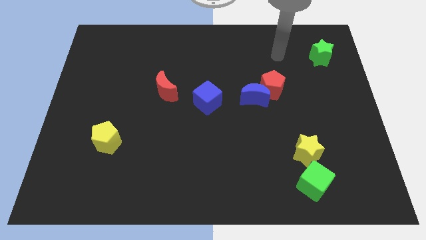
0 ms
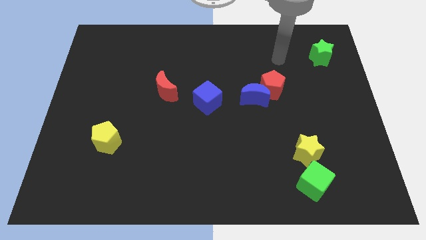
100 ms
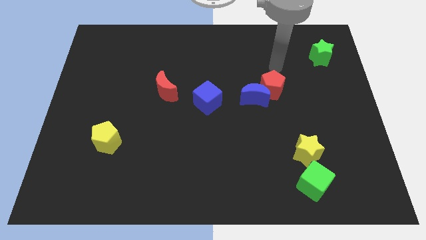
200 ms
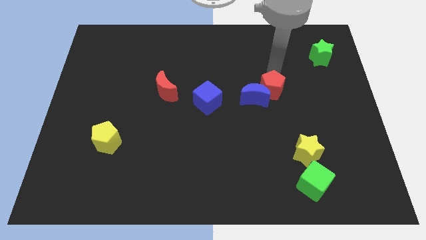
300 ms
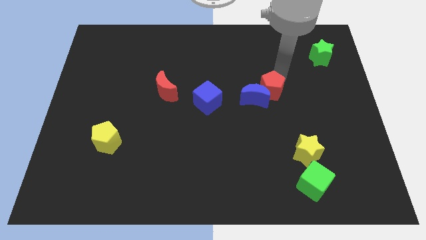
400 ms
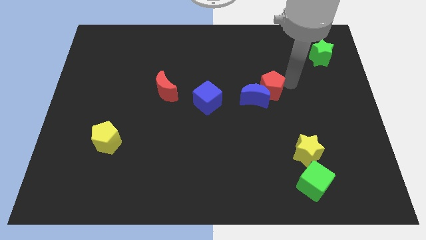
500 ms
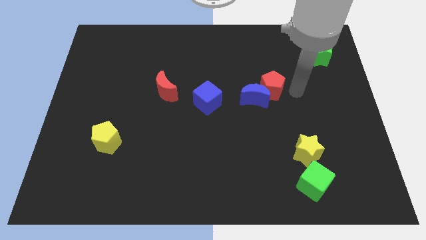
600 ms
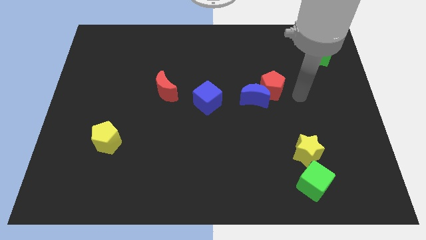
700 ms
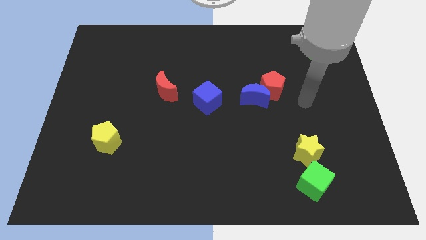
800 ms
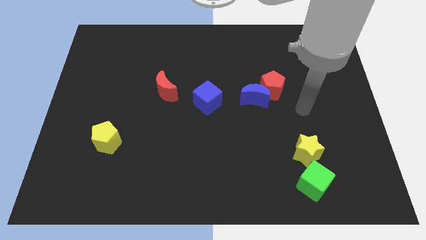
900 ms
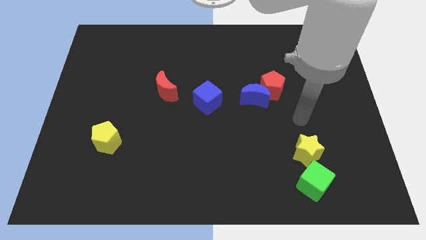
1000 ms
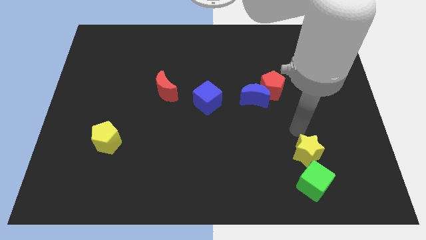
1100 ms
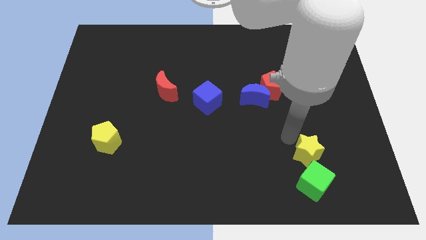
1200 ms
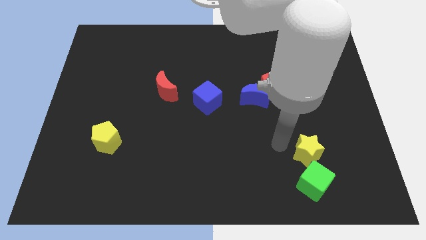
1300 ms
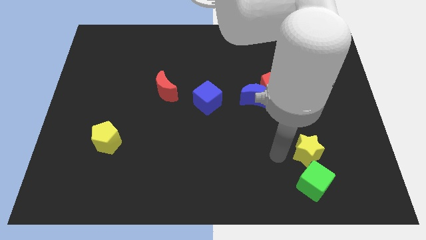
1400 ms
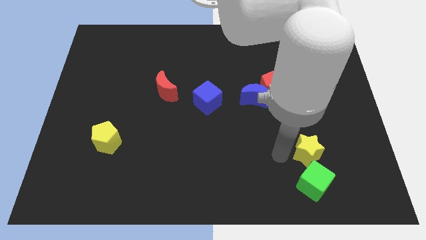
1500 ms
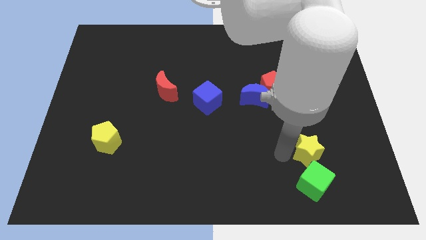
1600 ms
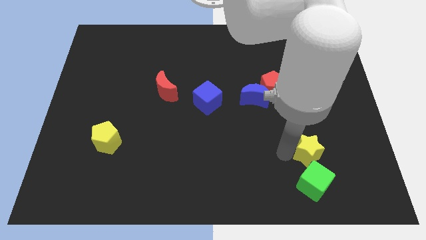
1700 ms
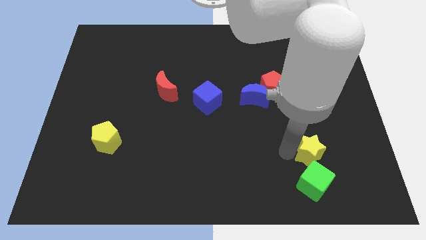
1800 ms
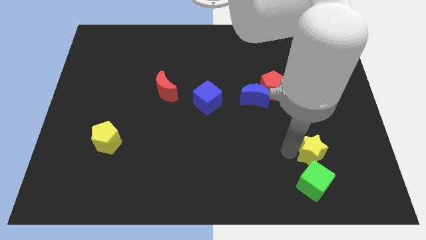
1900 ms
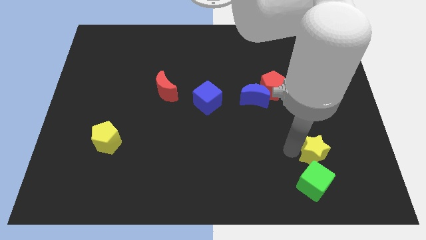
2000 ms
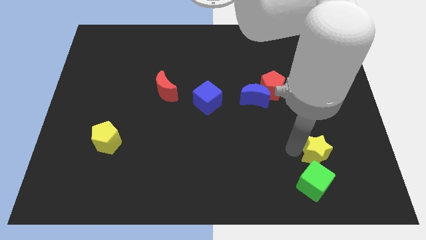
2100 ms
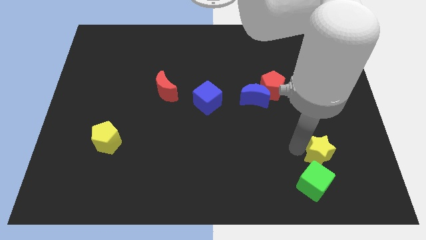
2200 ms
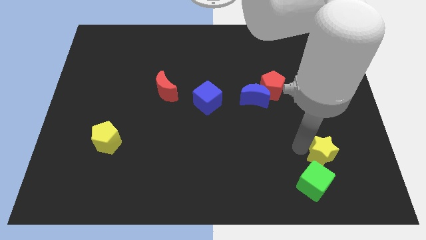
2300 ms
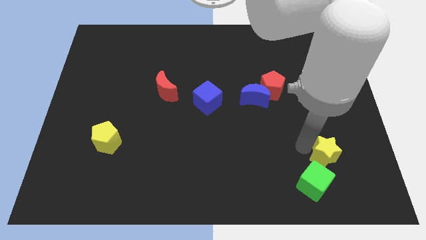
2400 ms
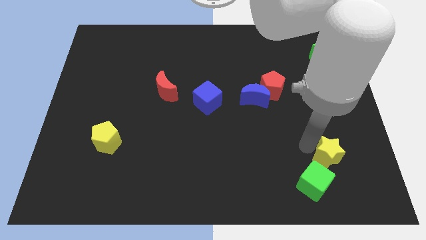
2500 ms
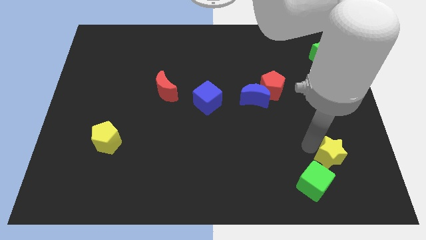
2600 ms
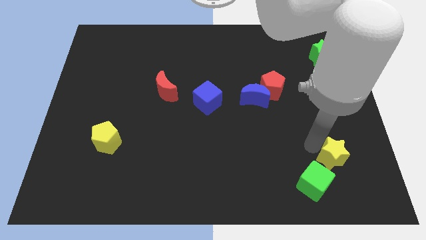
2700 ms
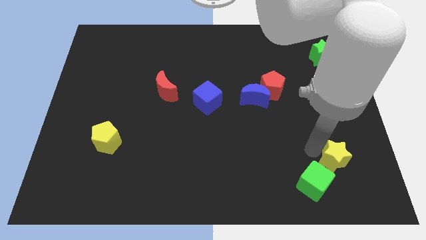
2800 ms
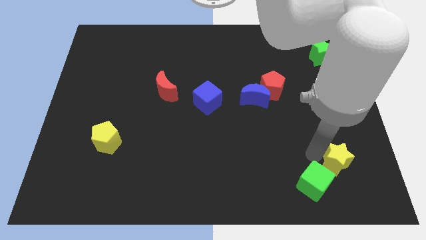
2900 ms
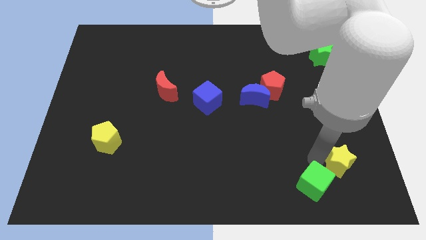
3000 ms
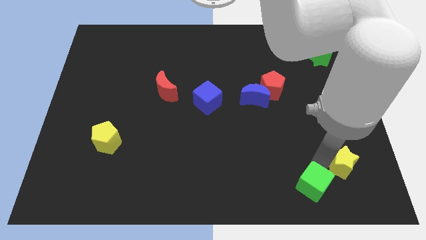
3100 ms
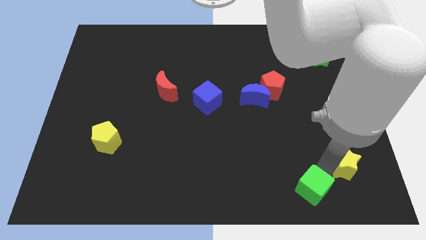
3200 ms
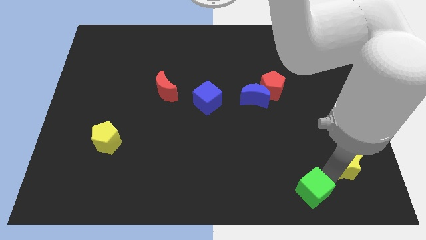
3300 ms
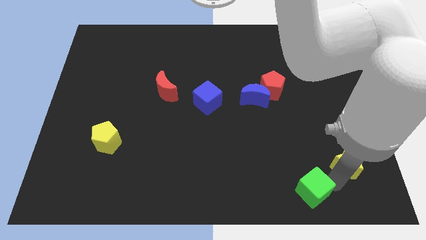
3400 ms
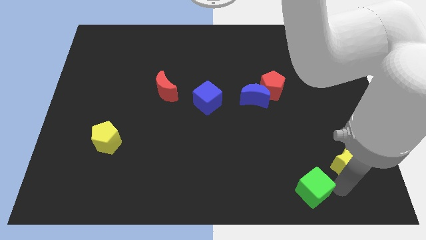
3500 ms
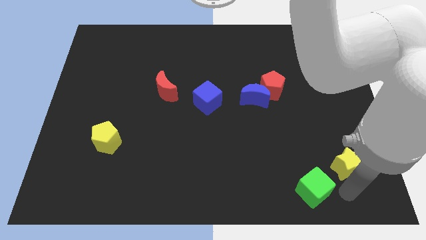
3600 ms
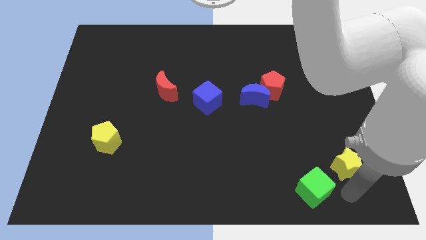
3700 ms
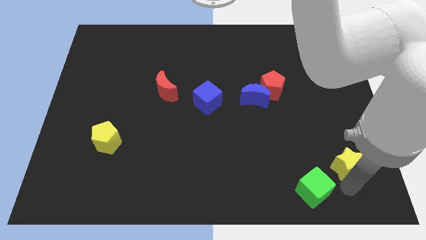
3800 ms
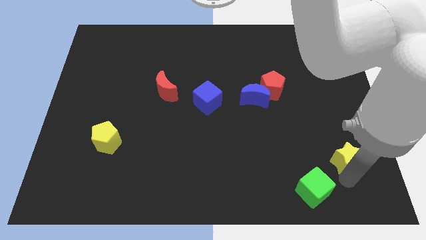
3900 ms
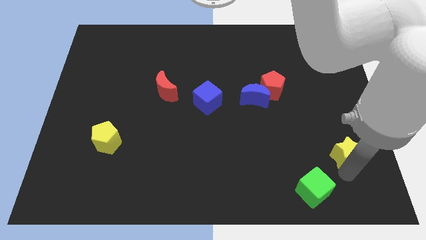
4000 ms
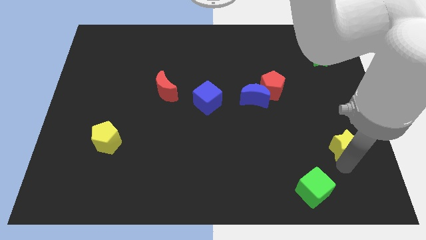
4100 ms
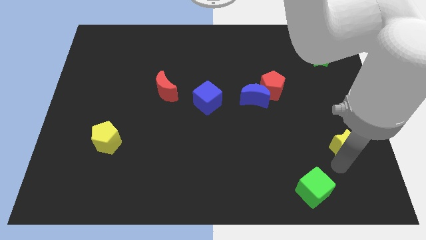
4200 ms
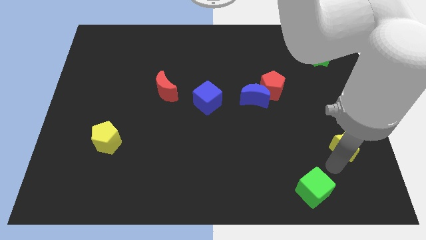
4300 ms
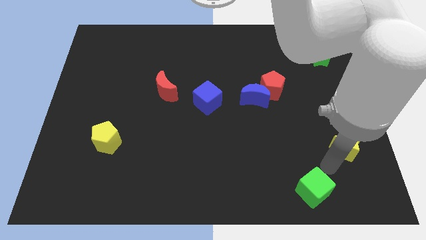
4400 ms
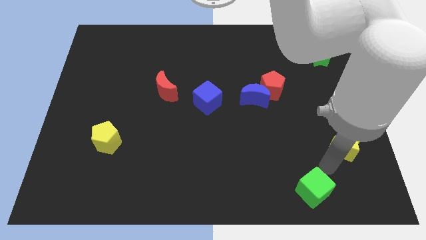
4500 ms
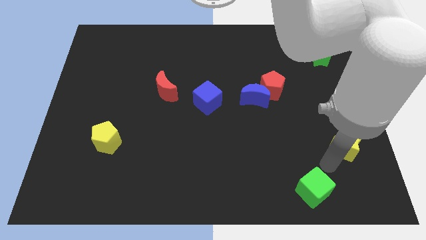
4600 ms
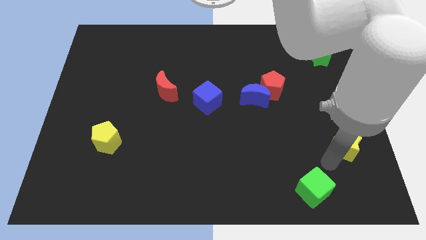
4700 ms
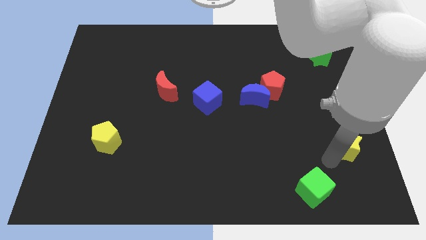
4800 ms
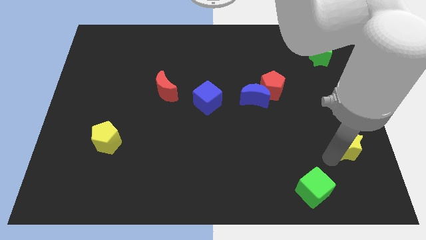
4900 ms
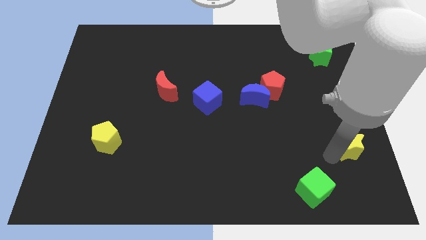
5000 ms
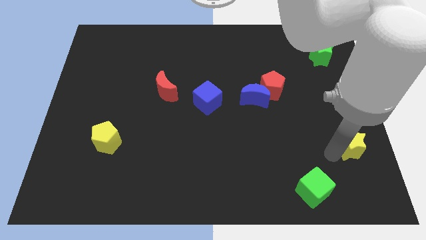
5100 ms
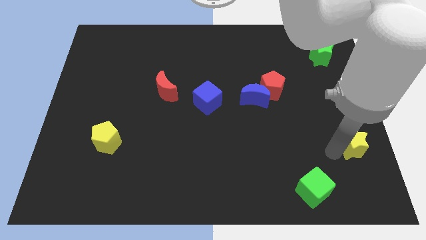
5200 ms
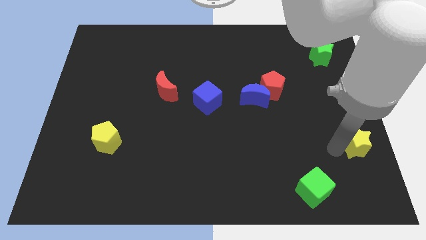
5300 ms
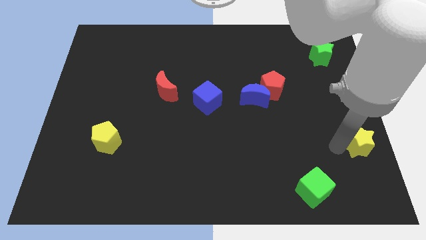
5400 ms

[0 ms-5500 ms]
slide the yellow star to the center right

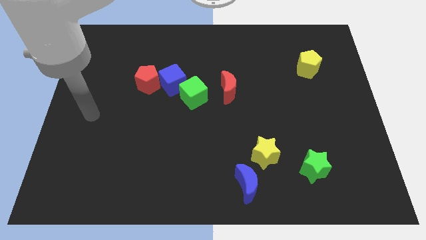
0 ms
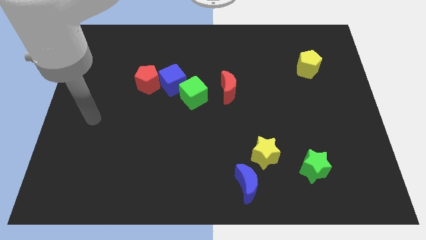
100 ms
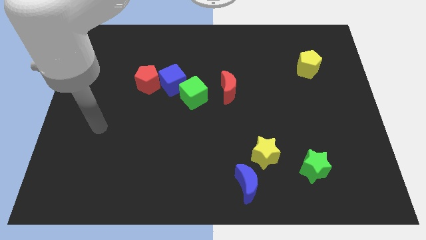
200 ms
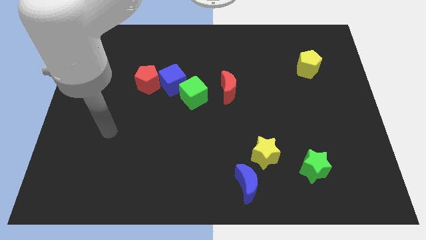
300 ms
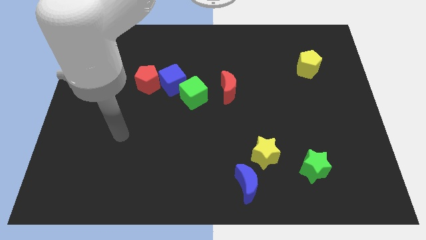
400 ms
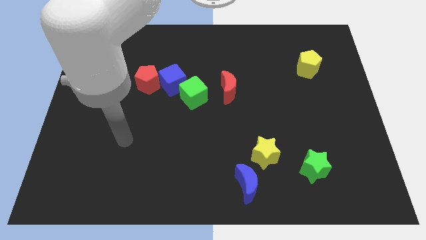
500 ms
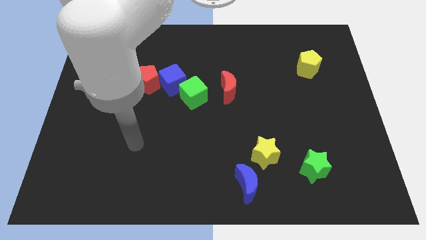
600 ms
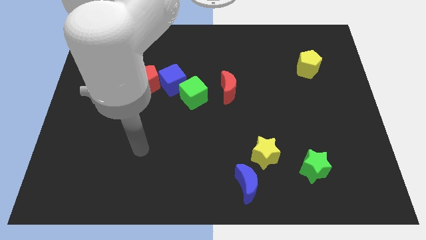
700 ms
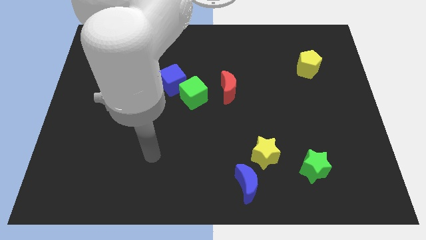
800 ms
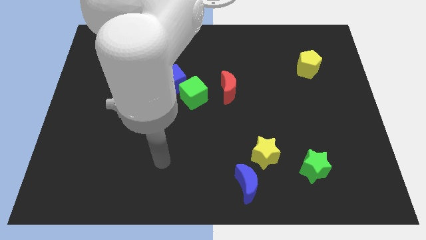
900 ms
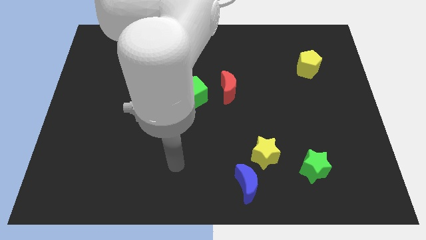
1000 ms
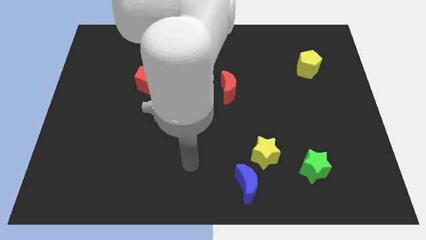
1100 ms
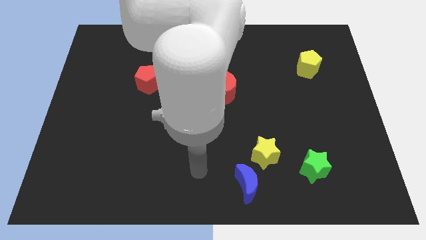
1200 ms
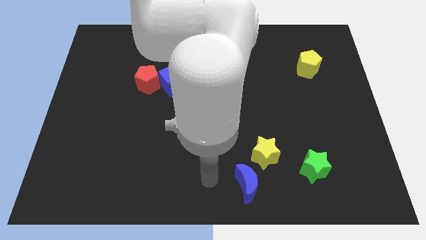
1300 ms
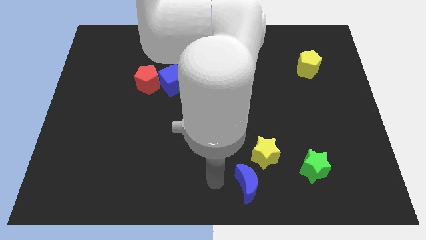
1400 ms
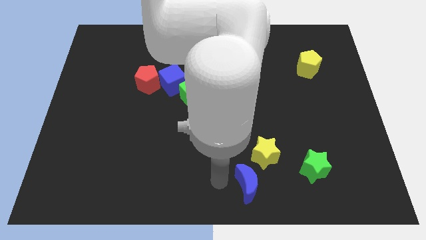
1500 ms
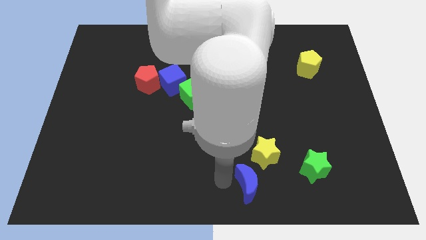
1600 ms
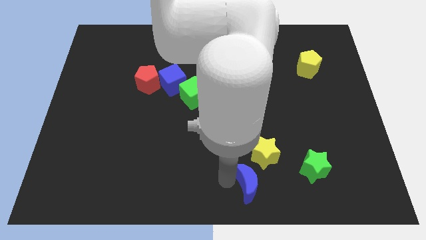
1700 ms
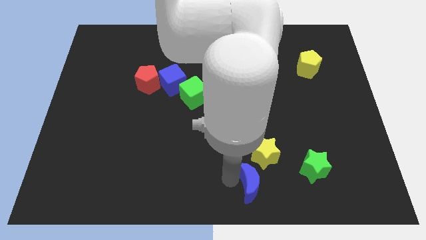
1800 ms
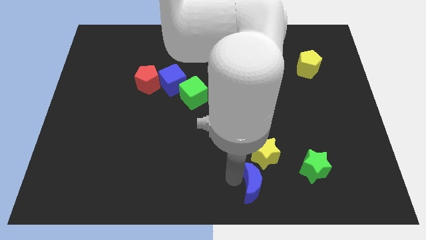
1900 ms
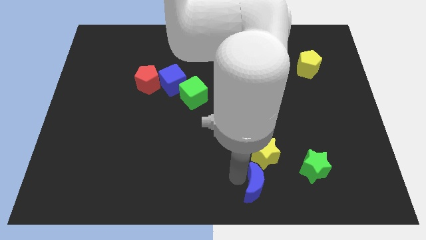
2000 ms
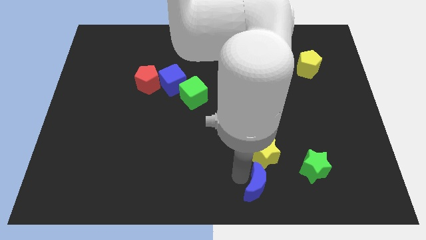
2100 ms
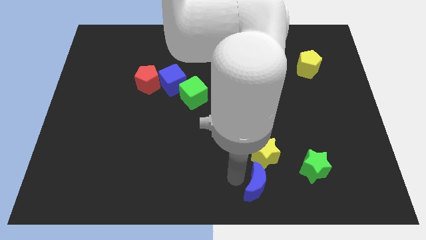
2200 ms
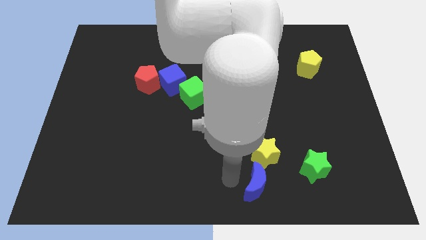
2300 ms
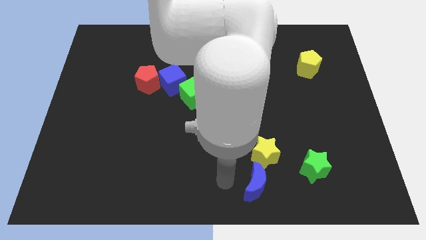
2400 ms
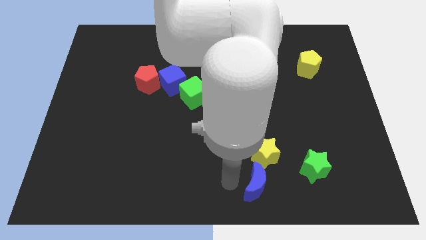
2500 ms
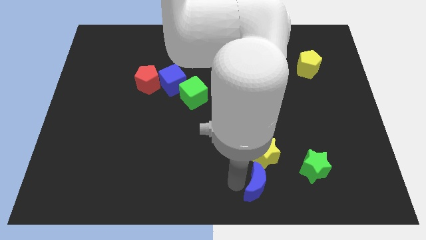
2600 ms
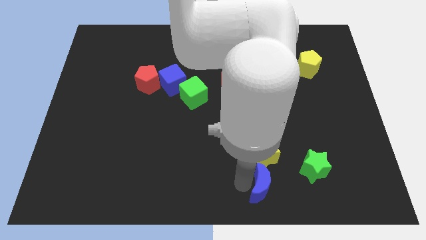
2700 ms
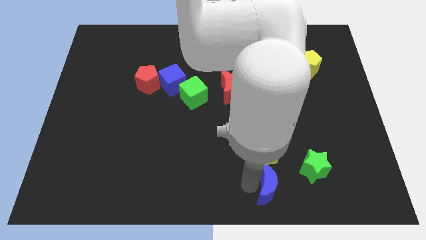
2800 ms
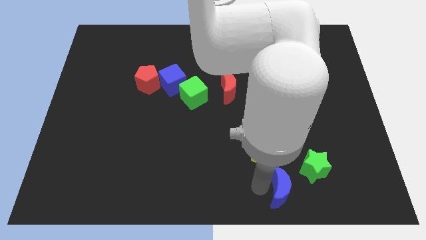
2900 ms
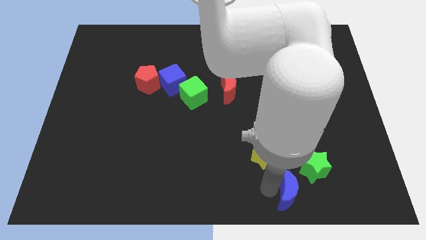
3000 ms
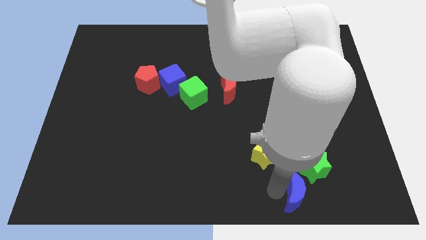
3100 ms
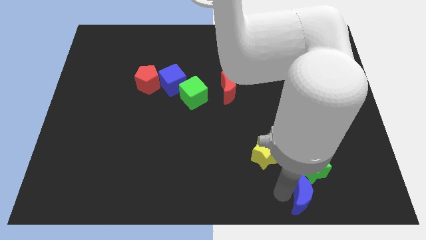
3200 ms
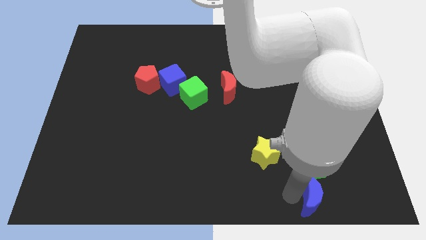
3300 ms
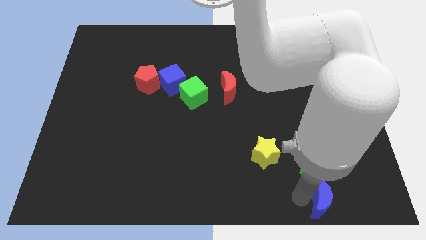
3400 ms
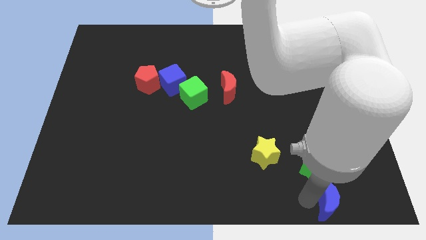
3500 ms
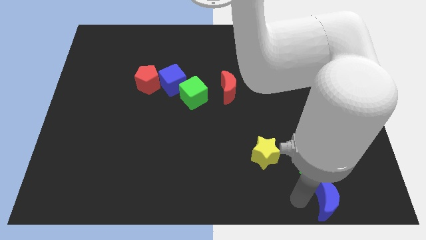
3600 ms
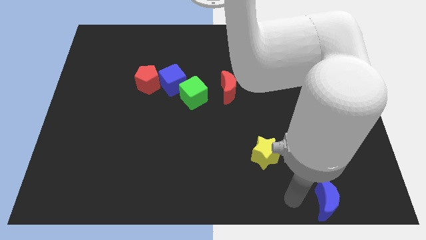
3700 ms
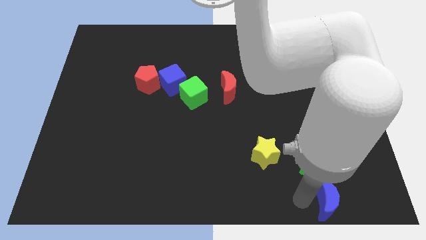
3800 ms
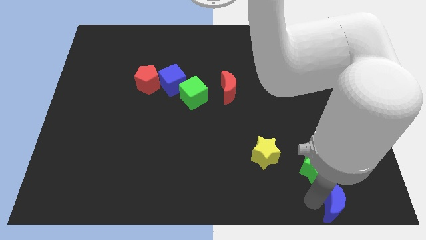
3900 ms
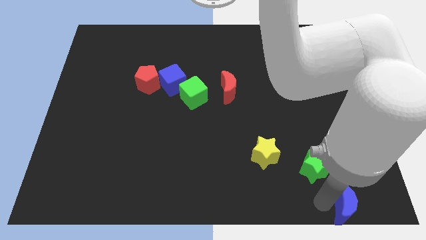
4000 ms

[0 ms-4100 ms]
move the blue moon to the bottom right
